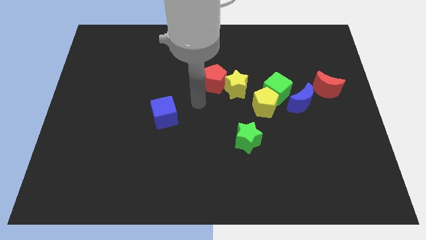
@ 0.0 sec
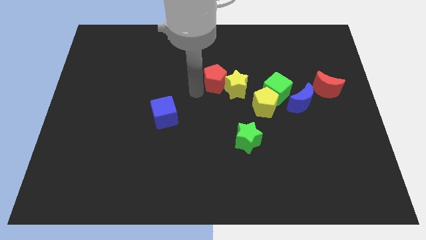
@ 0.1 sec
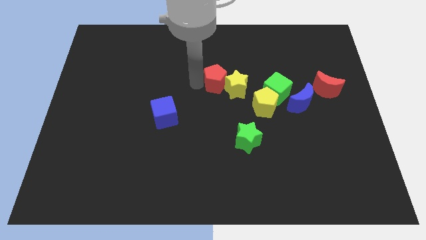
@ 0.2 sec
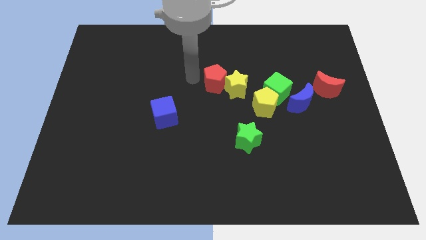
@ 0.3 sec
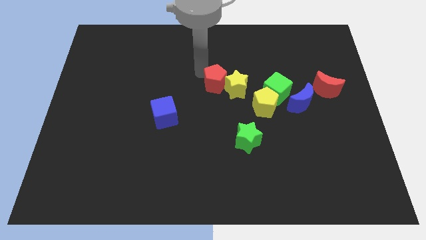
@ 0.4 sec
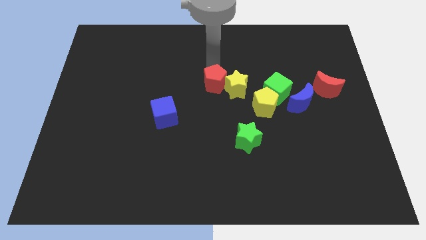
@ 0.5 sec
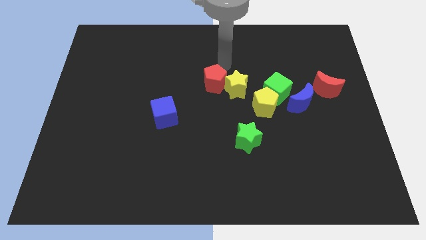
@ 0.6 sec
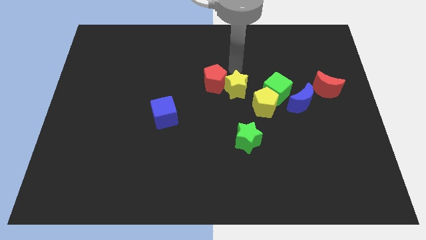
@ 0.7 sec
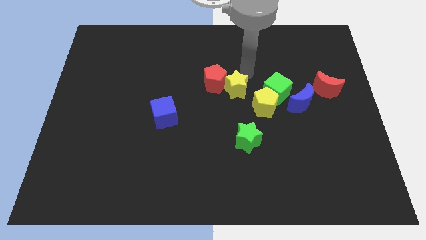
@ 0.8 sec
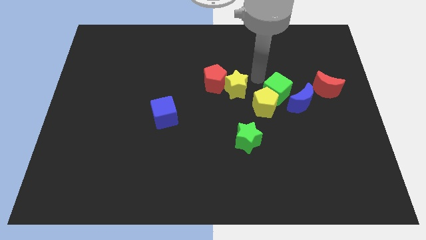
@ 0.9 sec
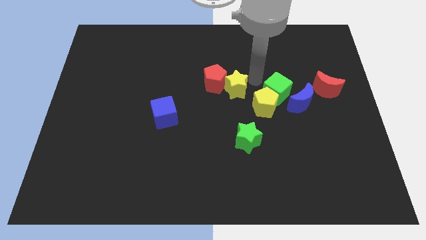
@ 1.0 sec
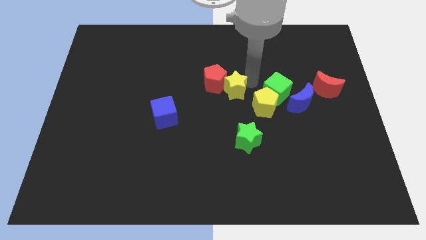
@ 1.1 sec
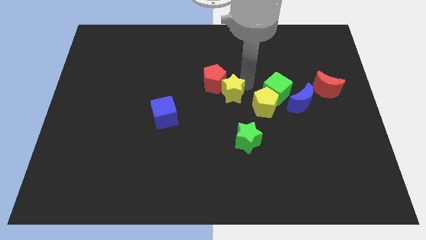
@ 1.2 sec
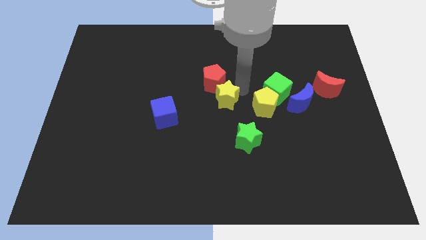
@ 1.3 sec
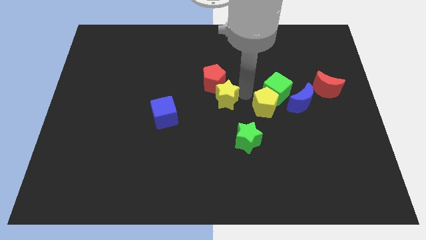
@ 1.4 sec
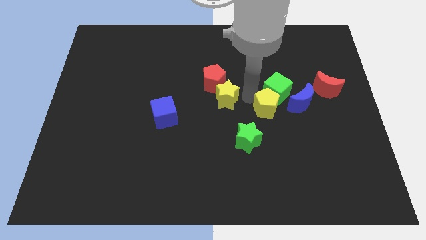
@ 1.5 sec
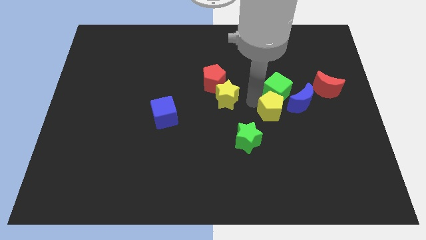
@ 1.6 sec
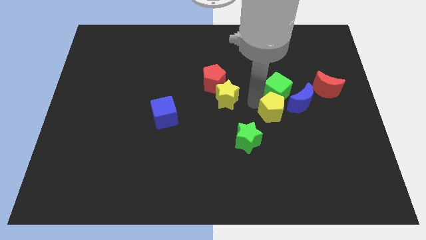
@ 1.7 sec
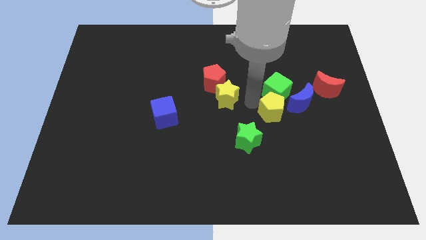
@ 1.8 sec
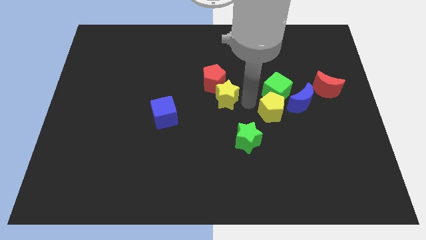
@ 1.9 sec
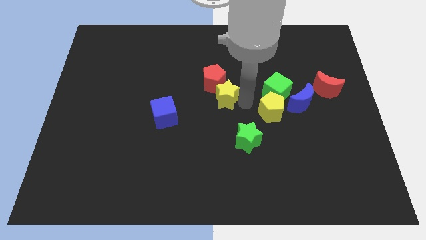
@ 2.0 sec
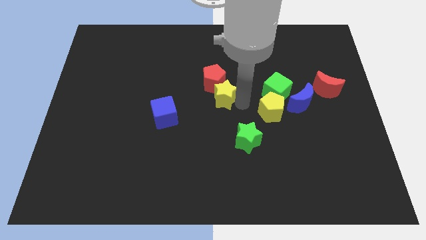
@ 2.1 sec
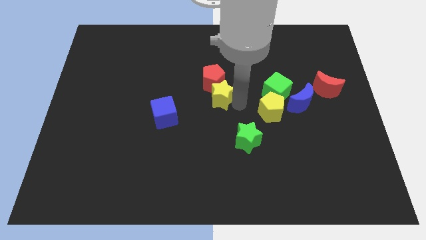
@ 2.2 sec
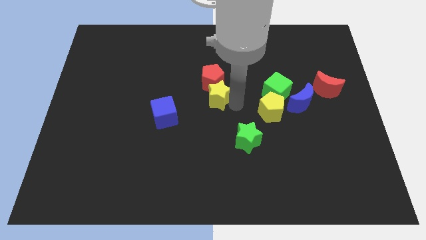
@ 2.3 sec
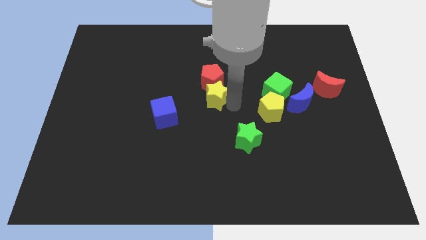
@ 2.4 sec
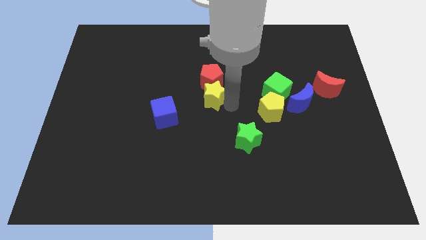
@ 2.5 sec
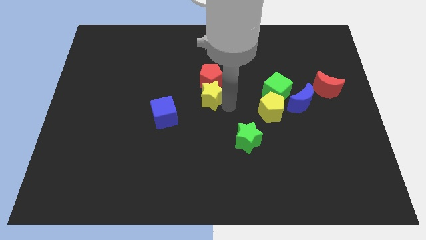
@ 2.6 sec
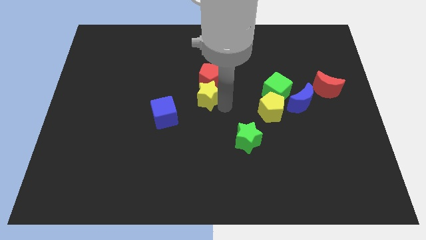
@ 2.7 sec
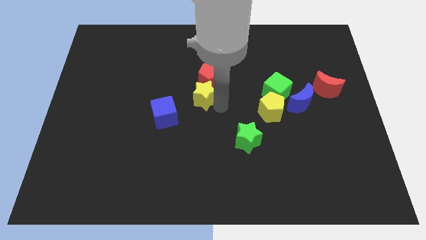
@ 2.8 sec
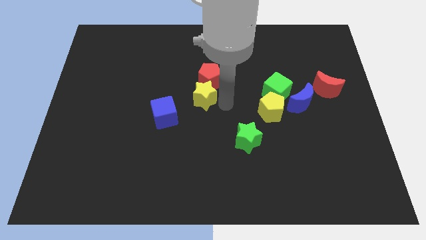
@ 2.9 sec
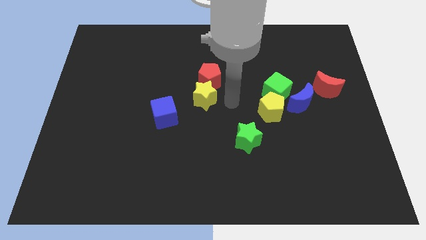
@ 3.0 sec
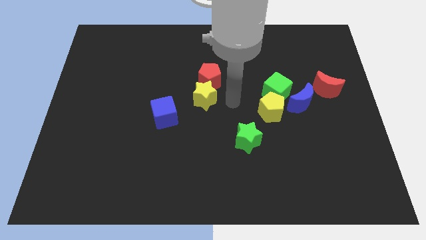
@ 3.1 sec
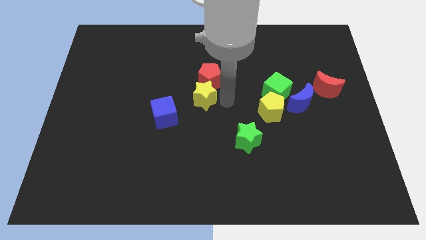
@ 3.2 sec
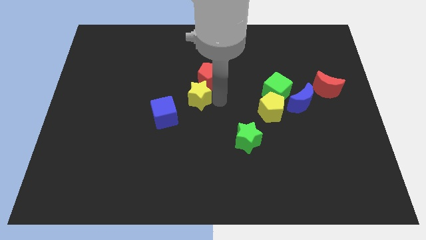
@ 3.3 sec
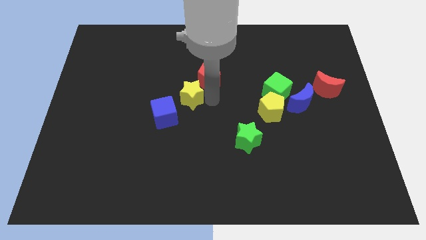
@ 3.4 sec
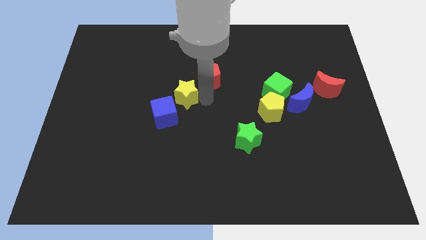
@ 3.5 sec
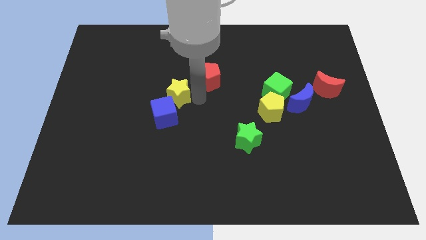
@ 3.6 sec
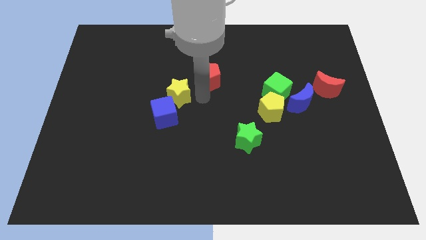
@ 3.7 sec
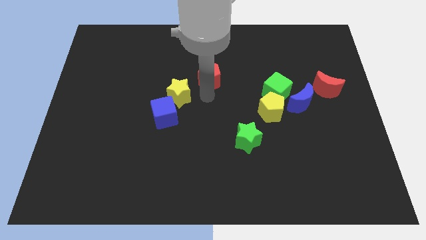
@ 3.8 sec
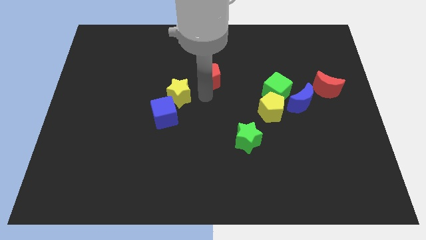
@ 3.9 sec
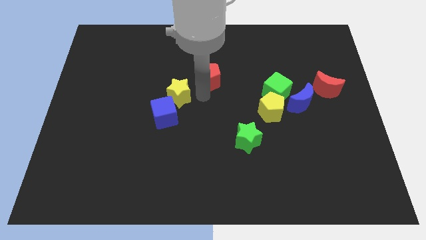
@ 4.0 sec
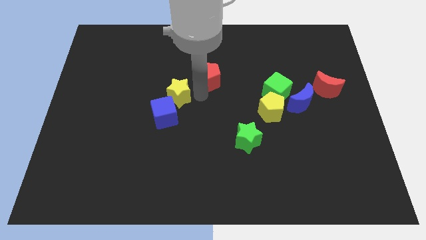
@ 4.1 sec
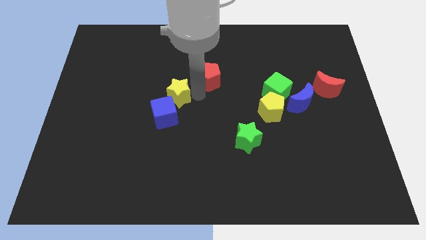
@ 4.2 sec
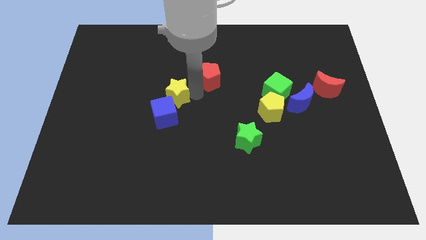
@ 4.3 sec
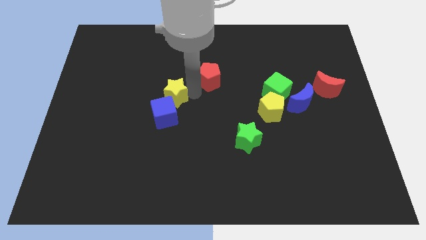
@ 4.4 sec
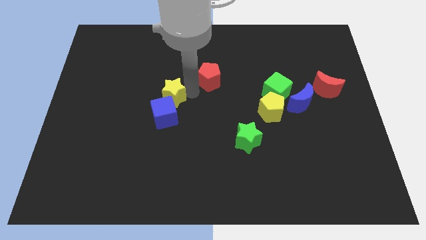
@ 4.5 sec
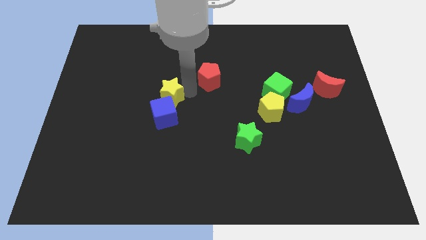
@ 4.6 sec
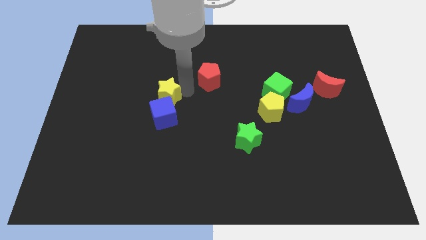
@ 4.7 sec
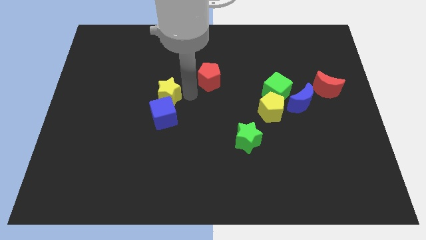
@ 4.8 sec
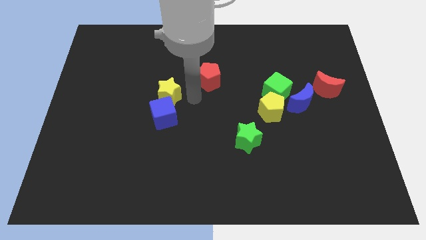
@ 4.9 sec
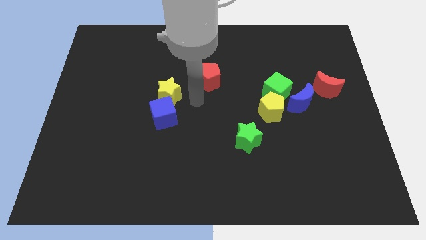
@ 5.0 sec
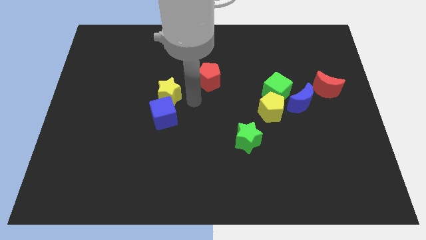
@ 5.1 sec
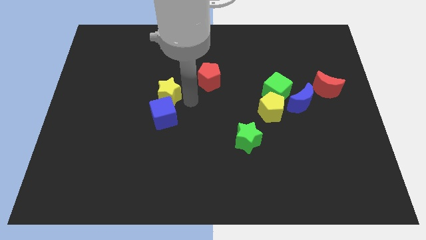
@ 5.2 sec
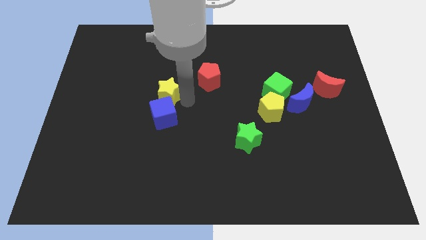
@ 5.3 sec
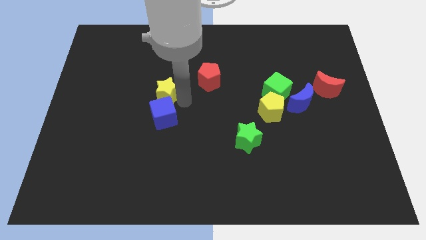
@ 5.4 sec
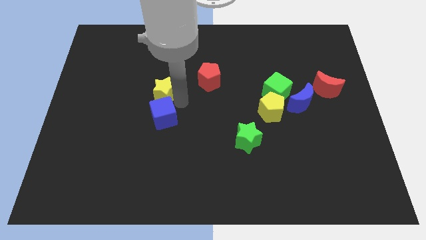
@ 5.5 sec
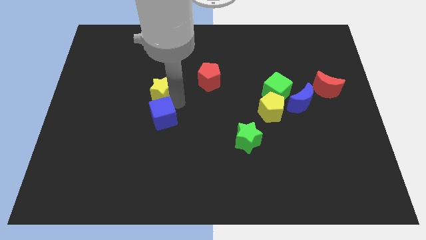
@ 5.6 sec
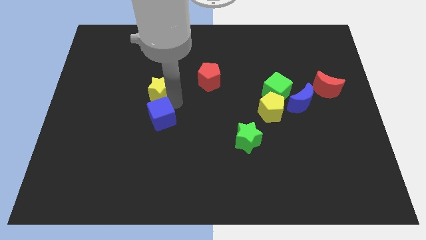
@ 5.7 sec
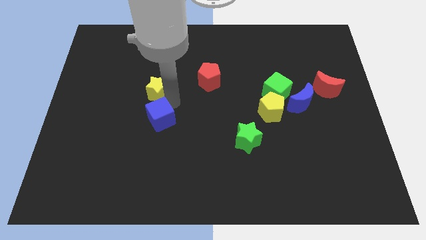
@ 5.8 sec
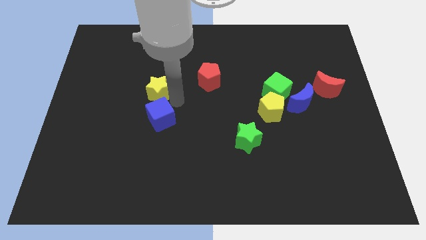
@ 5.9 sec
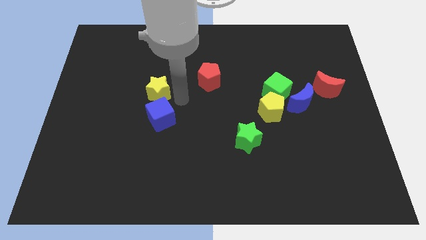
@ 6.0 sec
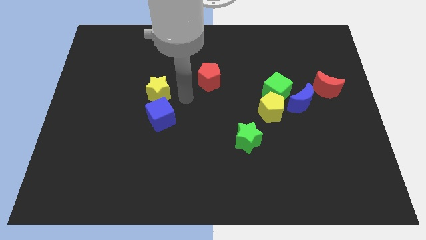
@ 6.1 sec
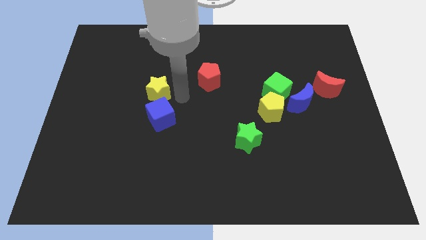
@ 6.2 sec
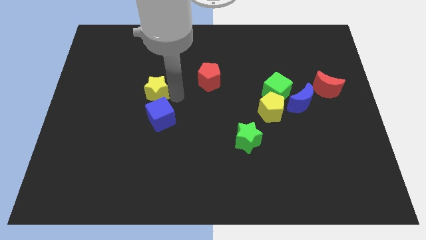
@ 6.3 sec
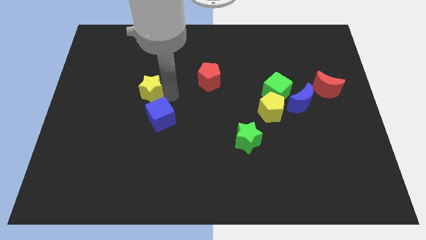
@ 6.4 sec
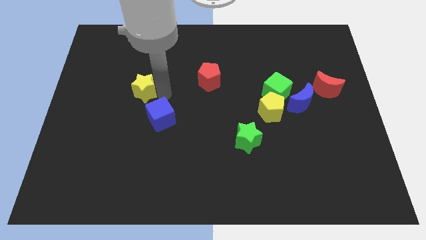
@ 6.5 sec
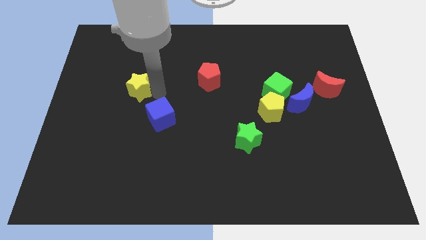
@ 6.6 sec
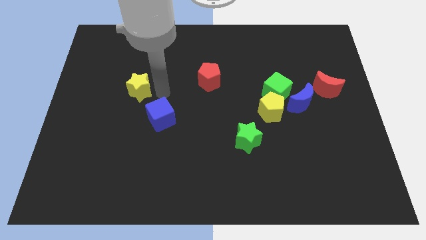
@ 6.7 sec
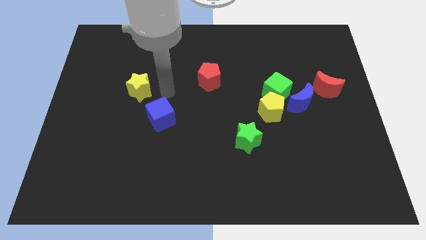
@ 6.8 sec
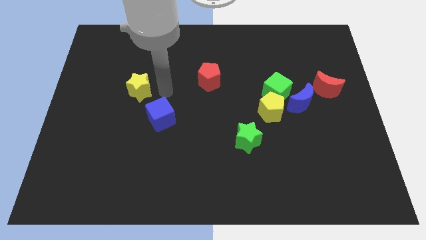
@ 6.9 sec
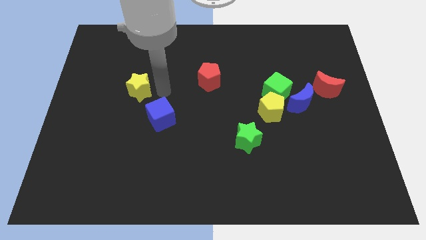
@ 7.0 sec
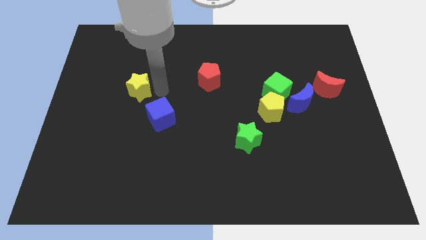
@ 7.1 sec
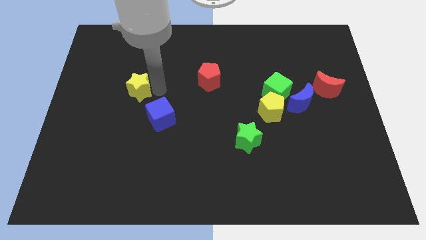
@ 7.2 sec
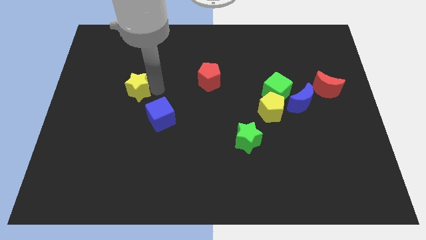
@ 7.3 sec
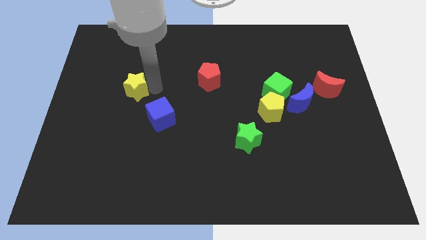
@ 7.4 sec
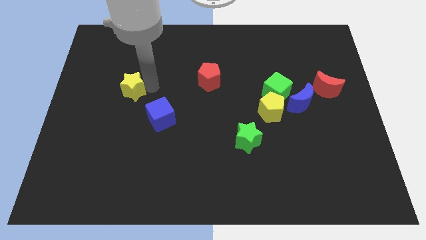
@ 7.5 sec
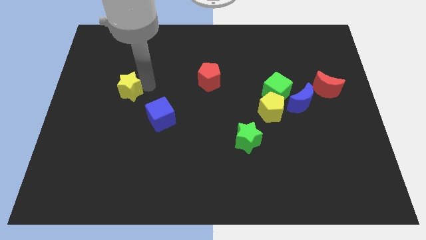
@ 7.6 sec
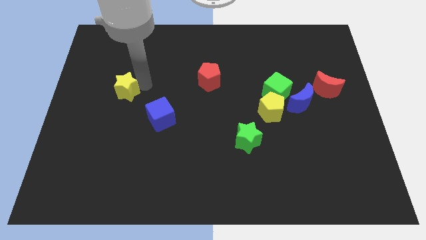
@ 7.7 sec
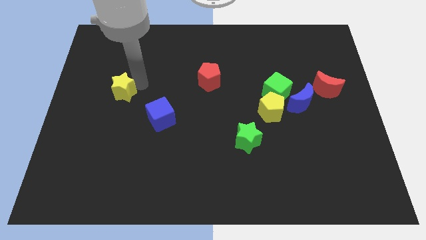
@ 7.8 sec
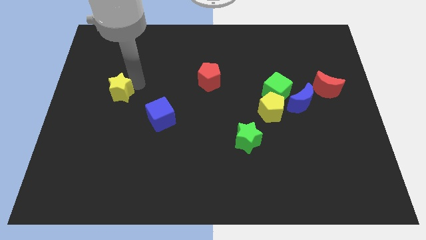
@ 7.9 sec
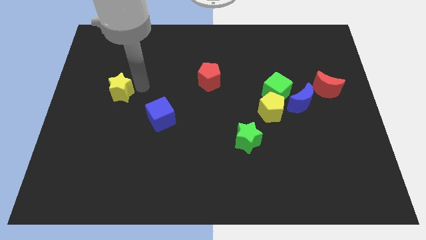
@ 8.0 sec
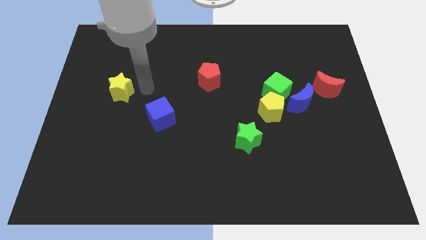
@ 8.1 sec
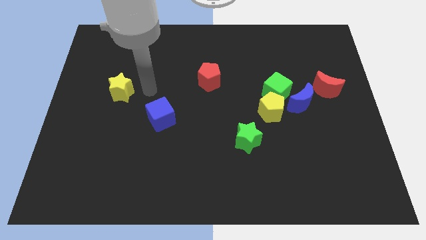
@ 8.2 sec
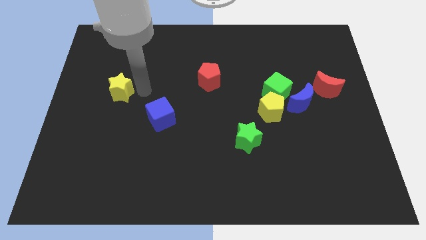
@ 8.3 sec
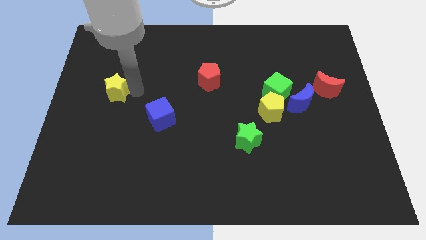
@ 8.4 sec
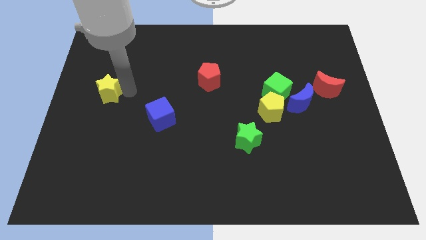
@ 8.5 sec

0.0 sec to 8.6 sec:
put the yellow star to the left side of the board
